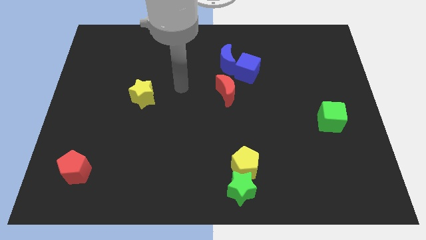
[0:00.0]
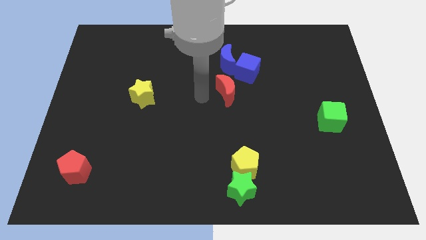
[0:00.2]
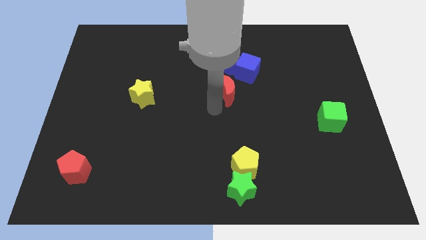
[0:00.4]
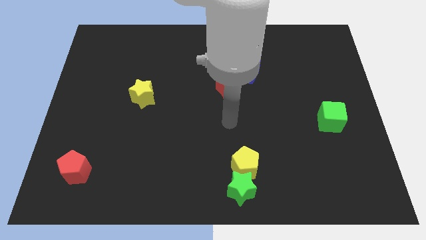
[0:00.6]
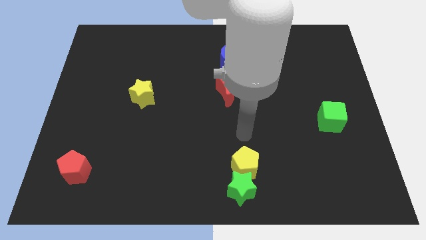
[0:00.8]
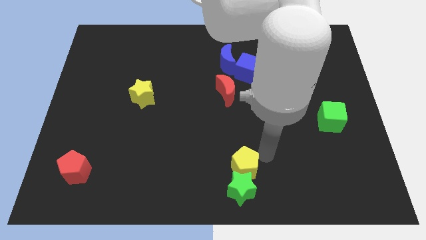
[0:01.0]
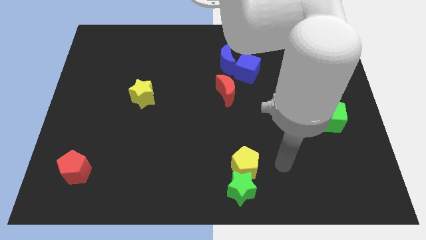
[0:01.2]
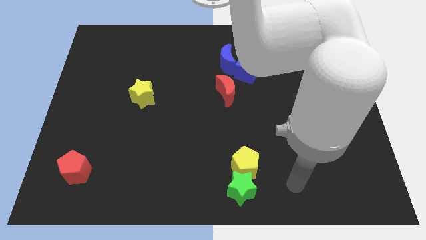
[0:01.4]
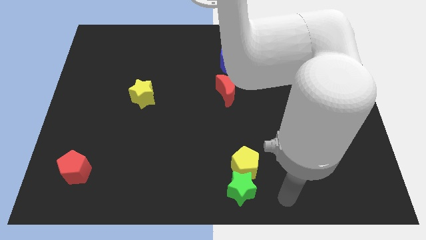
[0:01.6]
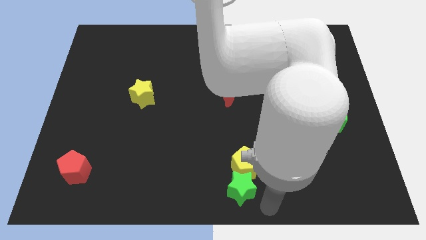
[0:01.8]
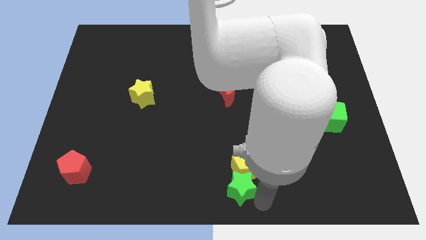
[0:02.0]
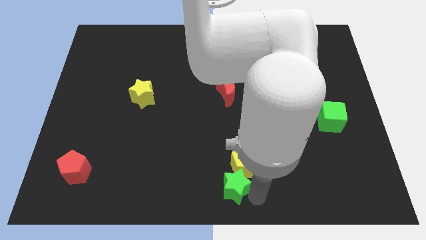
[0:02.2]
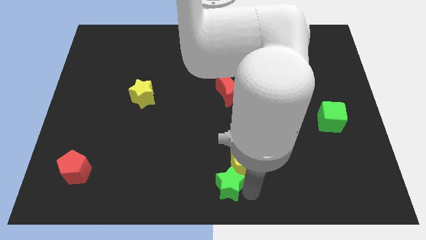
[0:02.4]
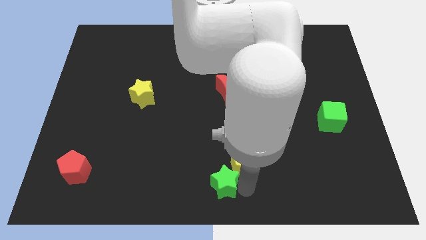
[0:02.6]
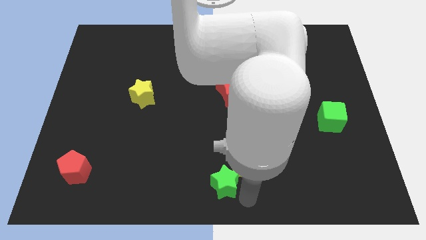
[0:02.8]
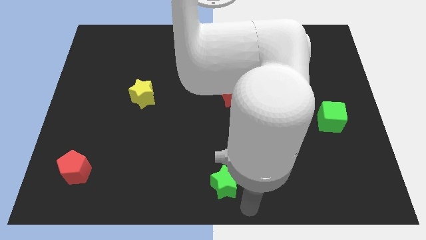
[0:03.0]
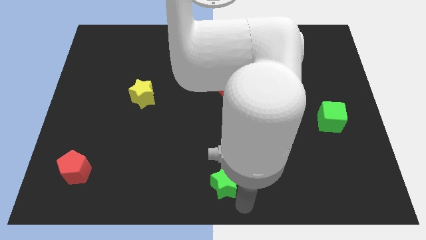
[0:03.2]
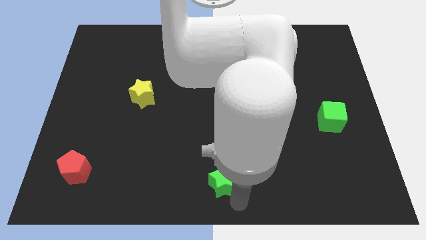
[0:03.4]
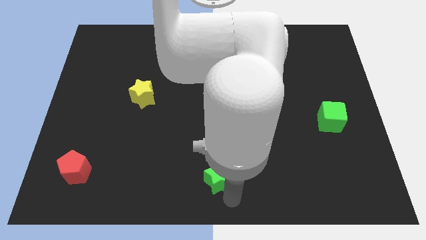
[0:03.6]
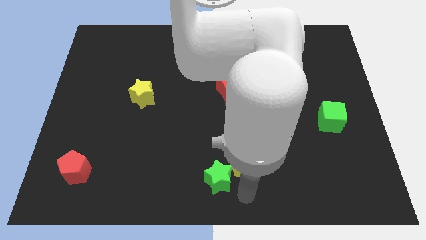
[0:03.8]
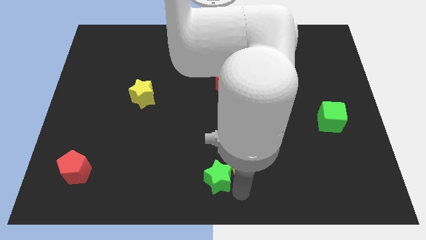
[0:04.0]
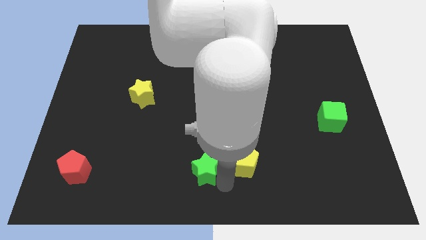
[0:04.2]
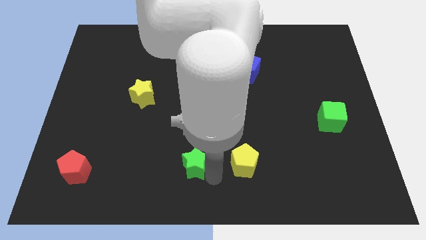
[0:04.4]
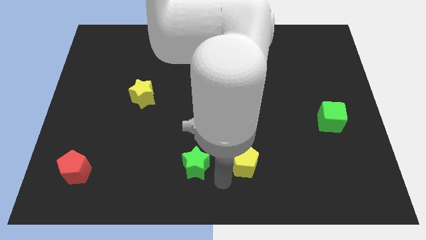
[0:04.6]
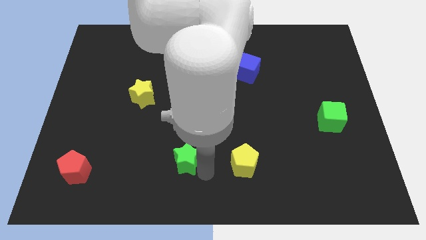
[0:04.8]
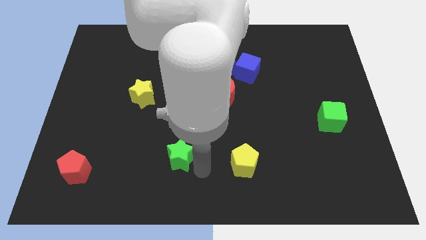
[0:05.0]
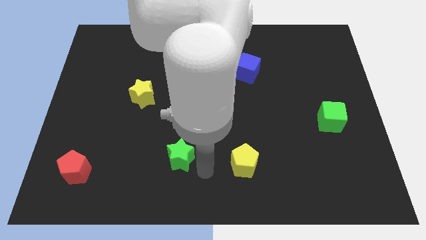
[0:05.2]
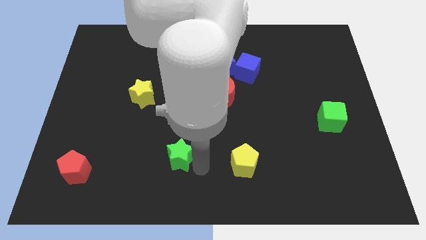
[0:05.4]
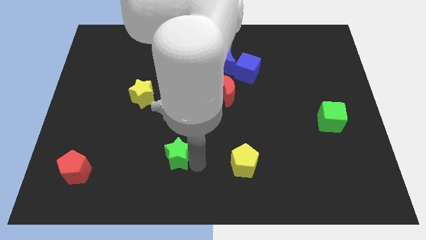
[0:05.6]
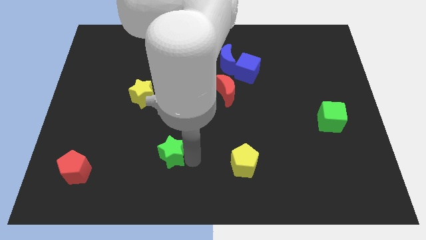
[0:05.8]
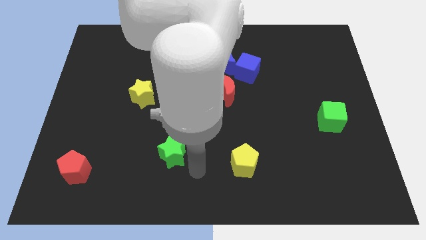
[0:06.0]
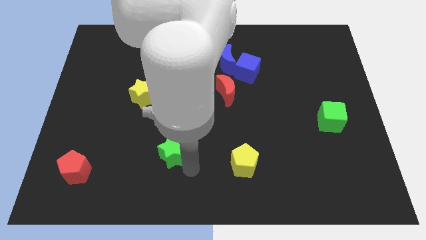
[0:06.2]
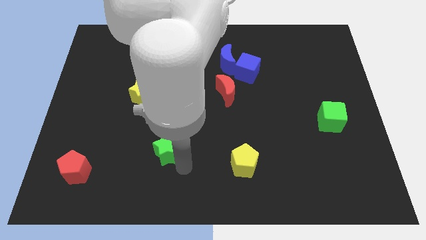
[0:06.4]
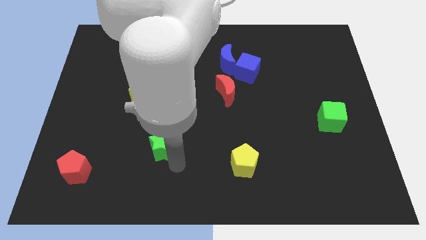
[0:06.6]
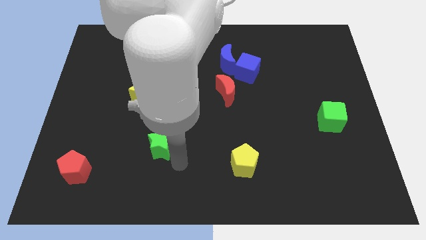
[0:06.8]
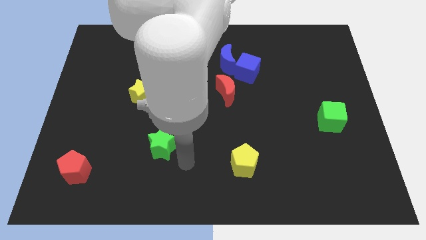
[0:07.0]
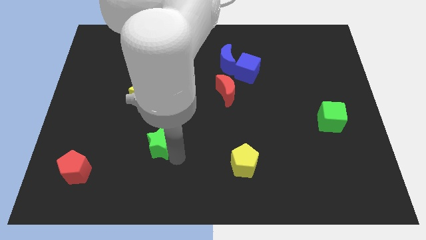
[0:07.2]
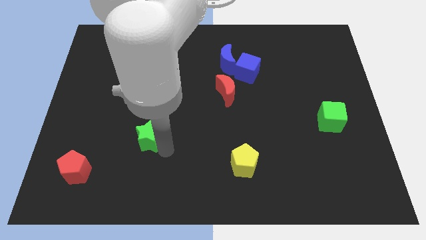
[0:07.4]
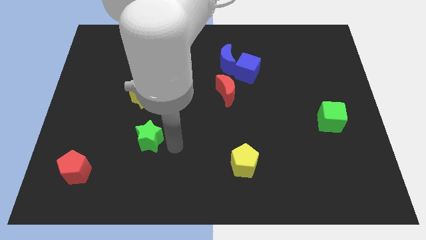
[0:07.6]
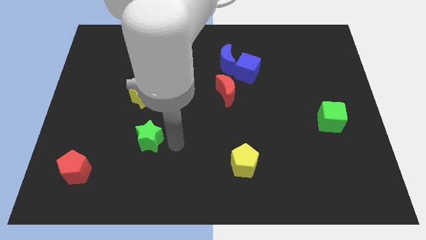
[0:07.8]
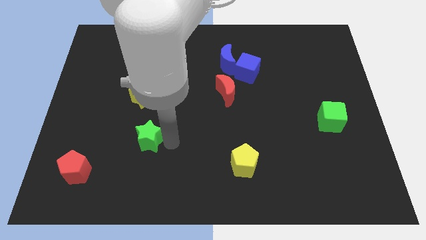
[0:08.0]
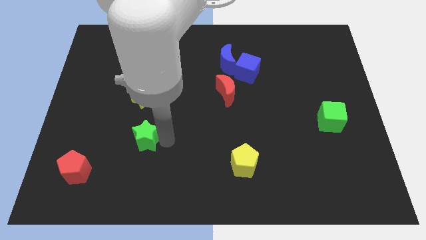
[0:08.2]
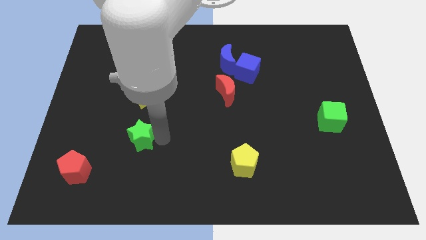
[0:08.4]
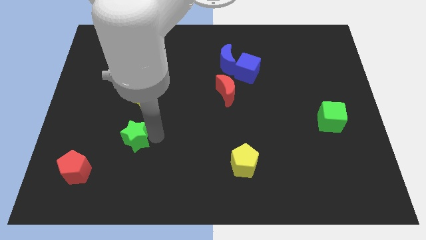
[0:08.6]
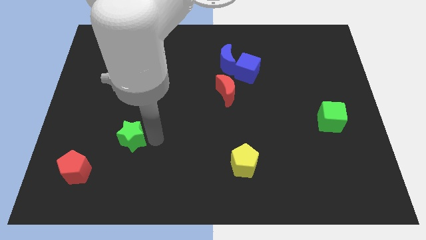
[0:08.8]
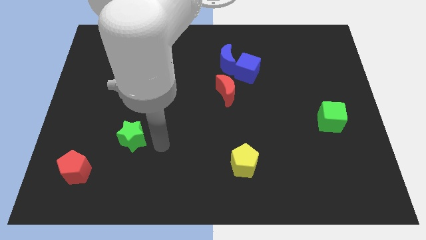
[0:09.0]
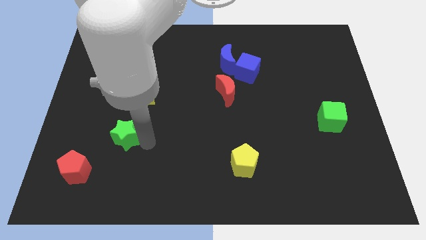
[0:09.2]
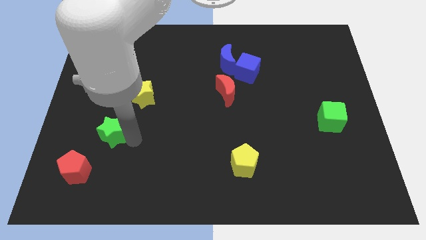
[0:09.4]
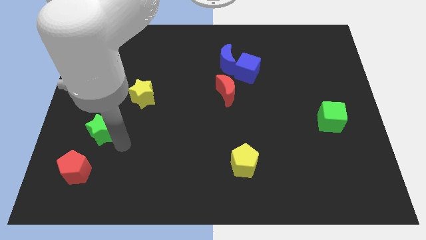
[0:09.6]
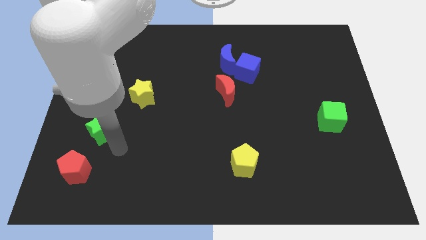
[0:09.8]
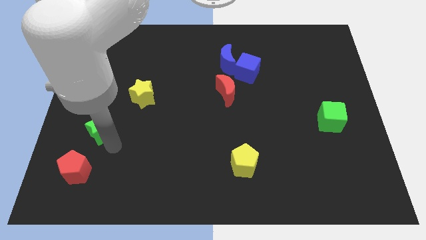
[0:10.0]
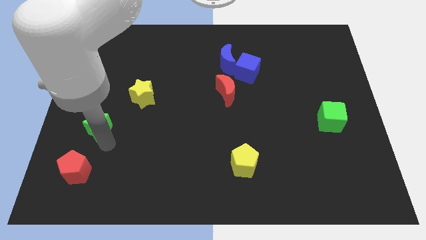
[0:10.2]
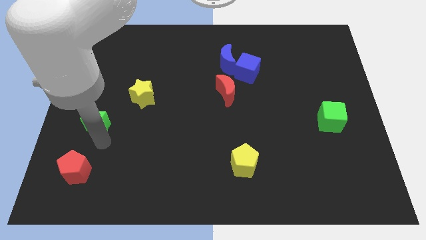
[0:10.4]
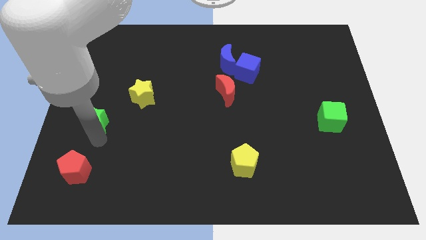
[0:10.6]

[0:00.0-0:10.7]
slide the green star to the center left

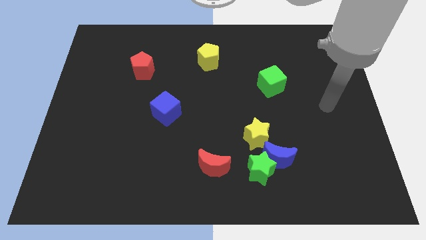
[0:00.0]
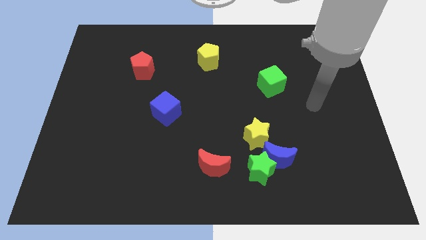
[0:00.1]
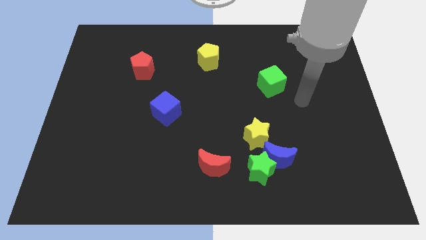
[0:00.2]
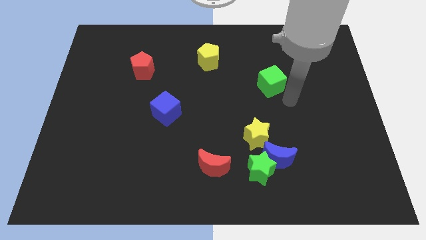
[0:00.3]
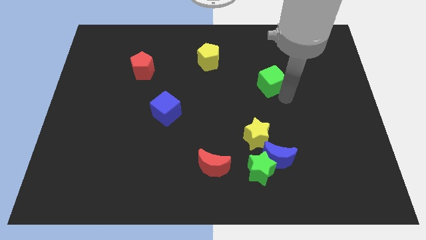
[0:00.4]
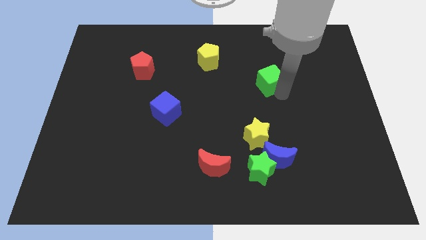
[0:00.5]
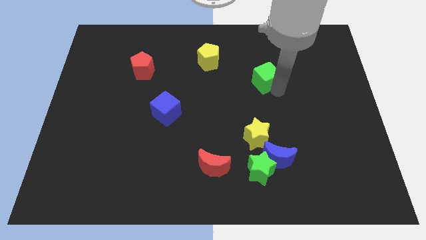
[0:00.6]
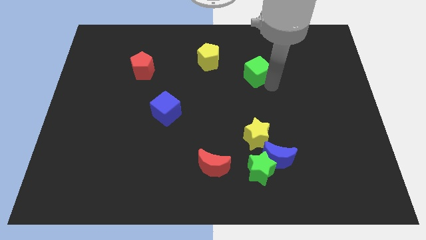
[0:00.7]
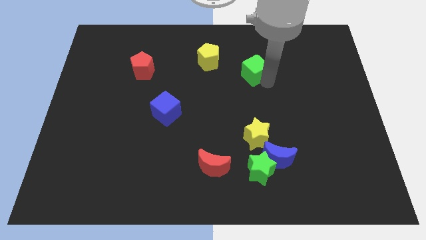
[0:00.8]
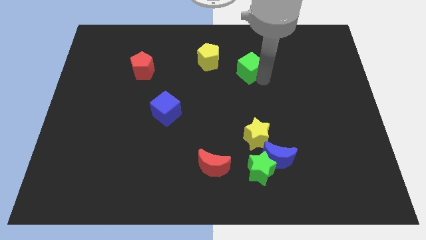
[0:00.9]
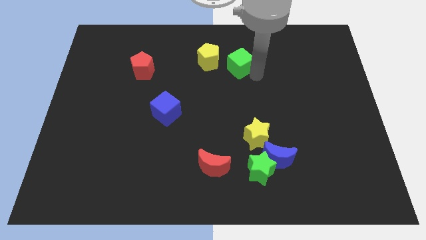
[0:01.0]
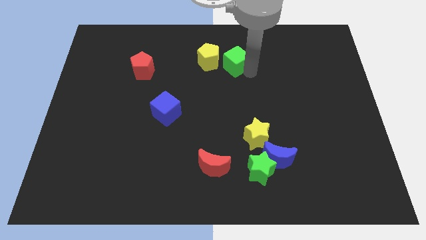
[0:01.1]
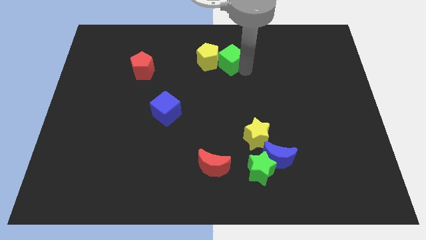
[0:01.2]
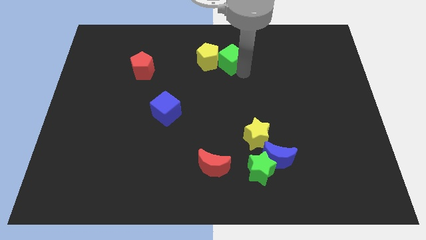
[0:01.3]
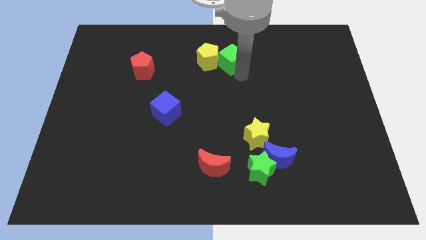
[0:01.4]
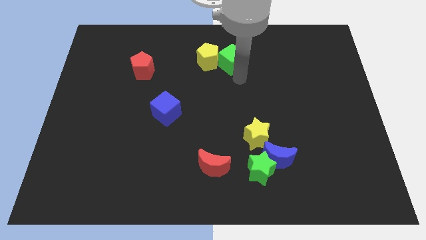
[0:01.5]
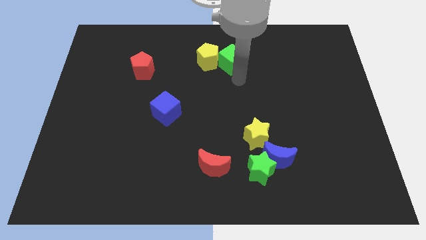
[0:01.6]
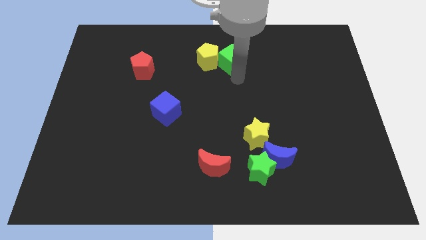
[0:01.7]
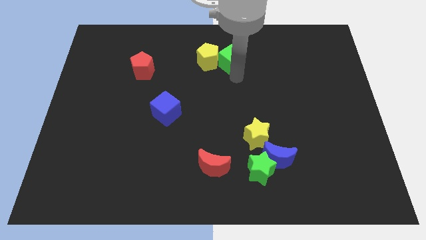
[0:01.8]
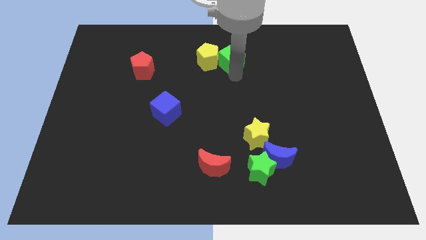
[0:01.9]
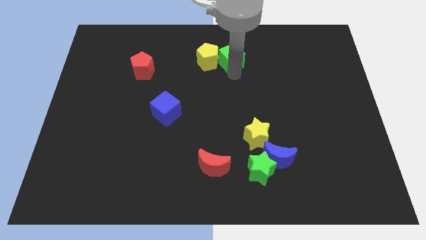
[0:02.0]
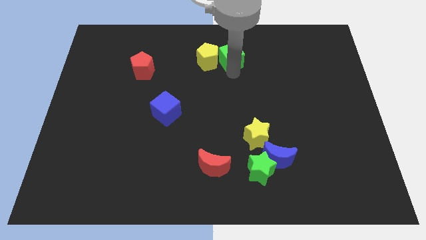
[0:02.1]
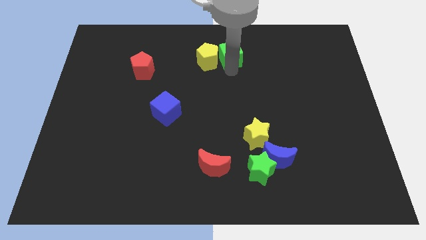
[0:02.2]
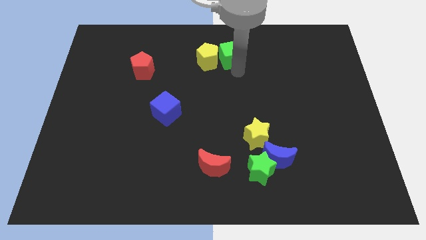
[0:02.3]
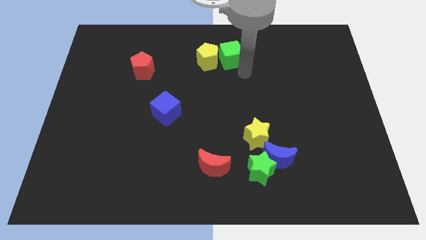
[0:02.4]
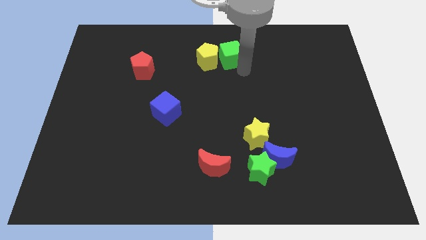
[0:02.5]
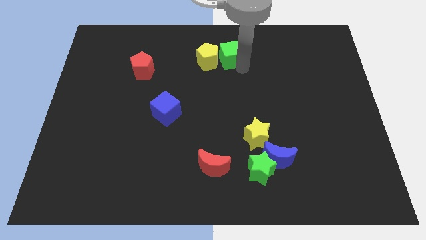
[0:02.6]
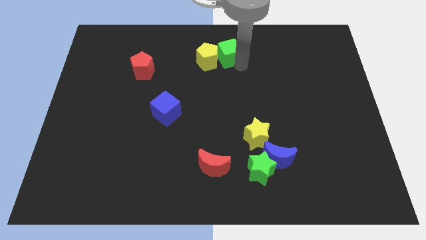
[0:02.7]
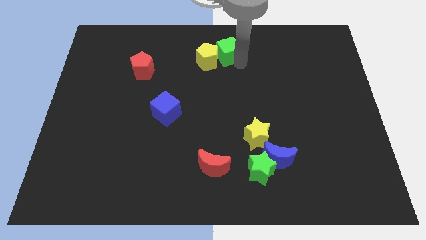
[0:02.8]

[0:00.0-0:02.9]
slide the green cube to the towards your base
